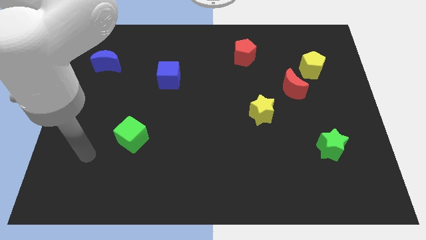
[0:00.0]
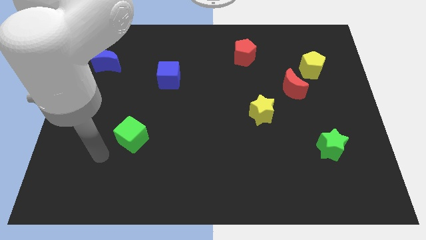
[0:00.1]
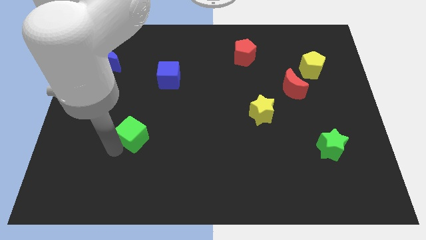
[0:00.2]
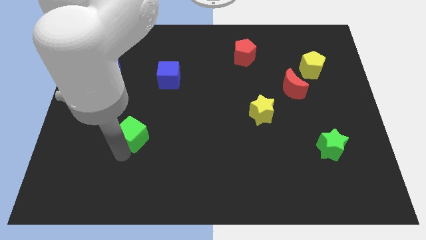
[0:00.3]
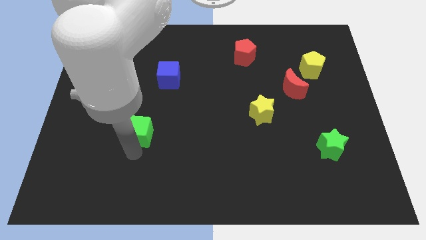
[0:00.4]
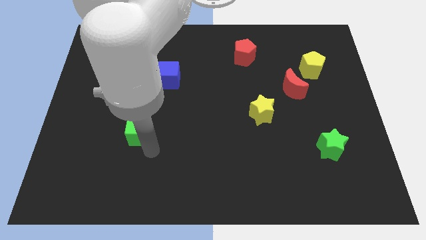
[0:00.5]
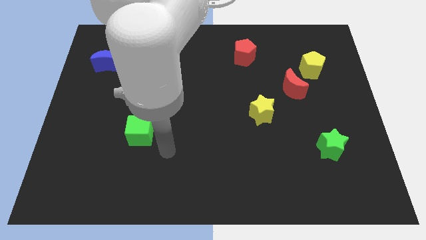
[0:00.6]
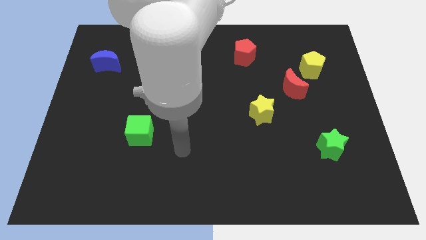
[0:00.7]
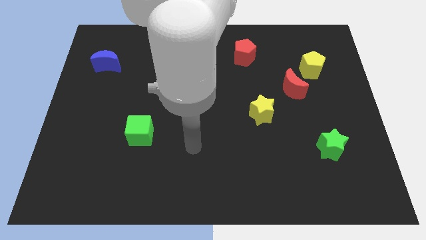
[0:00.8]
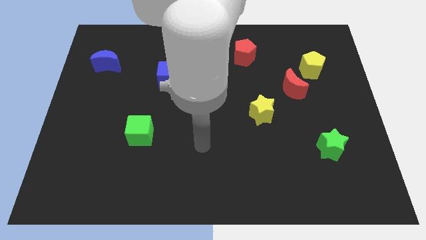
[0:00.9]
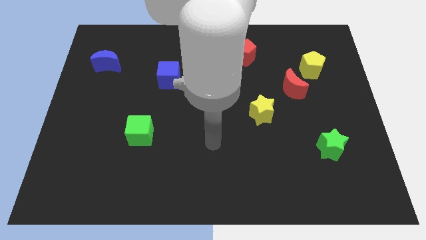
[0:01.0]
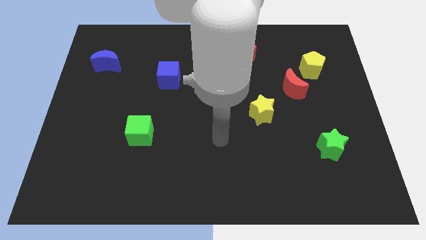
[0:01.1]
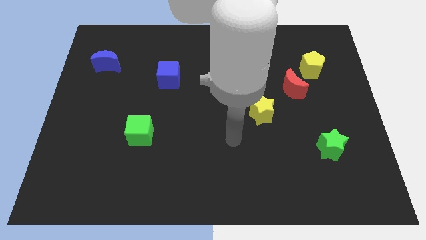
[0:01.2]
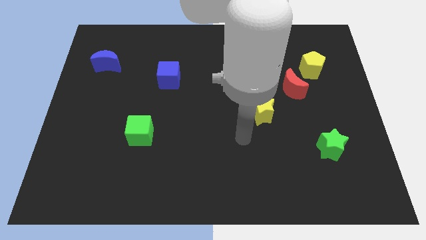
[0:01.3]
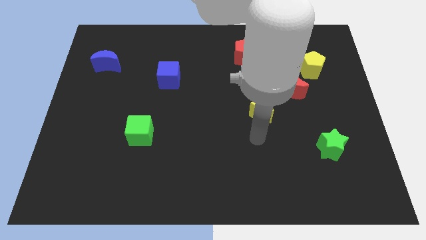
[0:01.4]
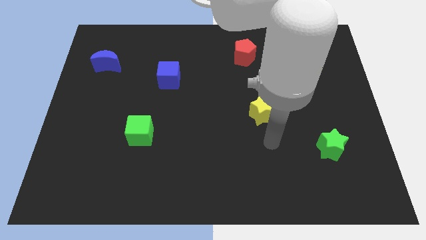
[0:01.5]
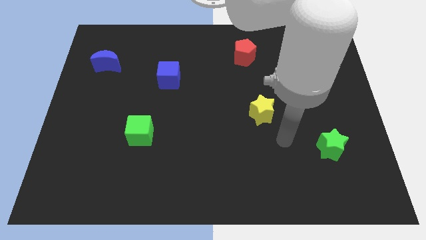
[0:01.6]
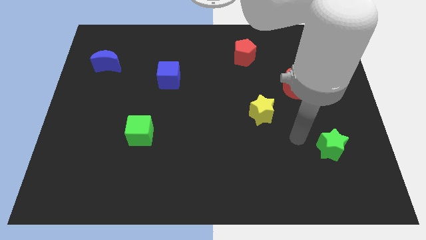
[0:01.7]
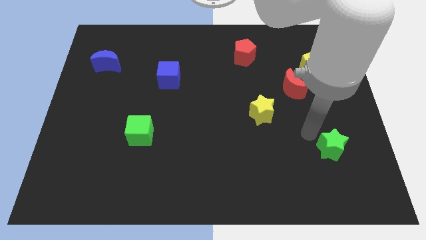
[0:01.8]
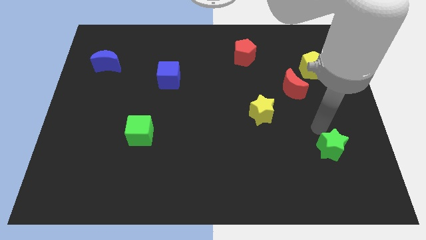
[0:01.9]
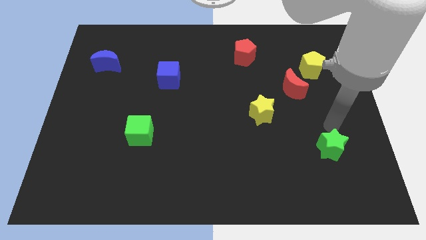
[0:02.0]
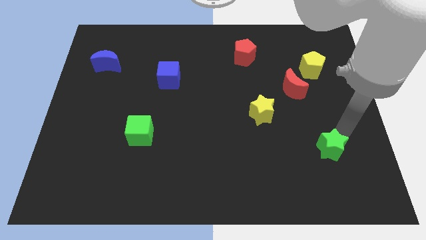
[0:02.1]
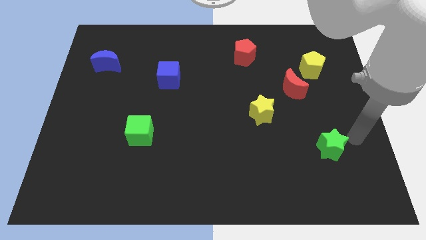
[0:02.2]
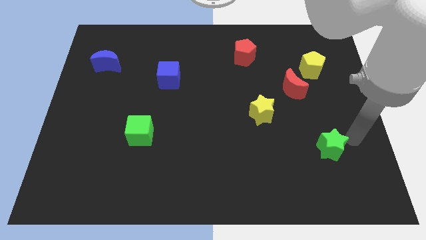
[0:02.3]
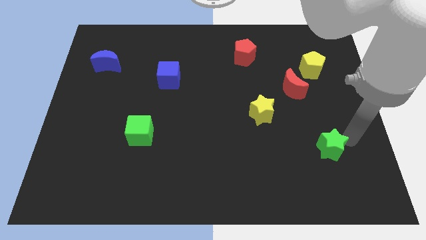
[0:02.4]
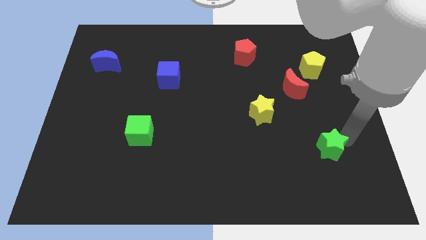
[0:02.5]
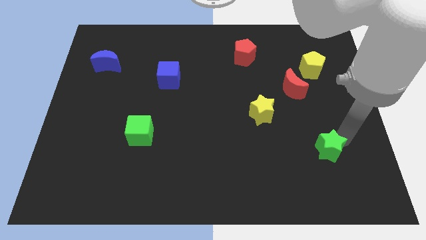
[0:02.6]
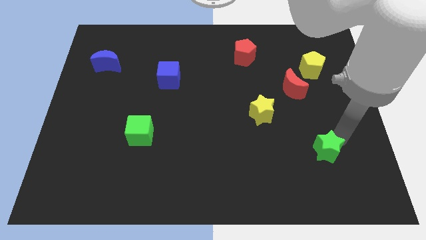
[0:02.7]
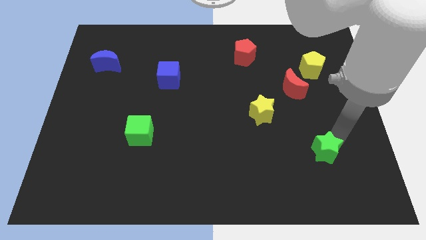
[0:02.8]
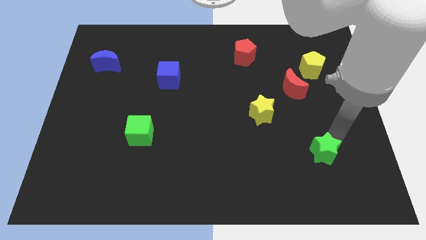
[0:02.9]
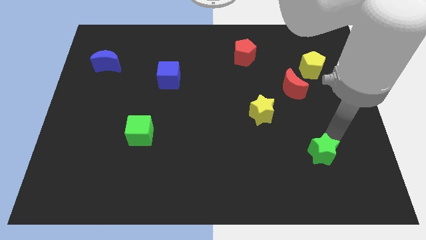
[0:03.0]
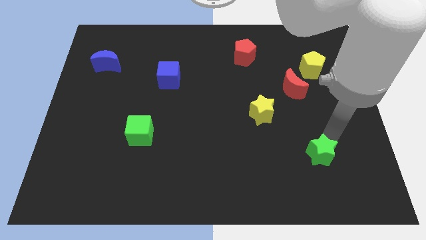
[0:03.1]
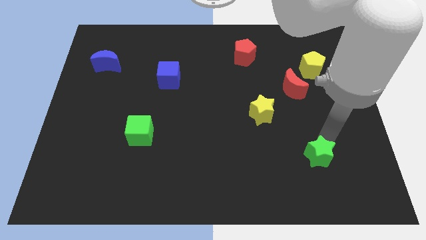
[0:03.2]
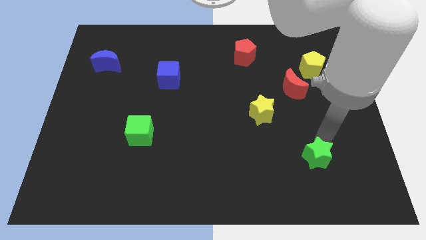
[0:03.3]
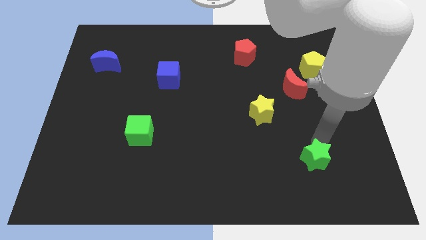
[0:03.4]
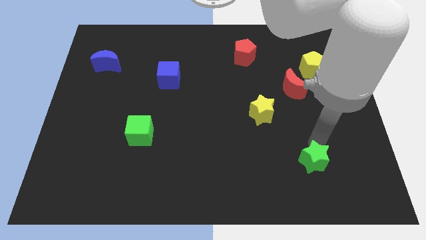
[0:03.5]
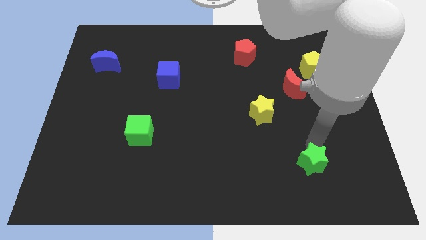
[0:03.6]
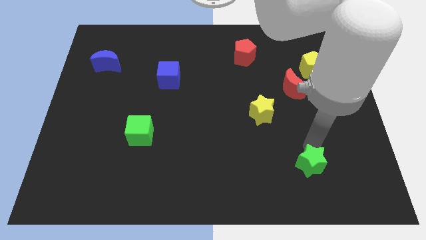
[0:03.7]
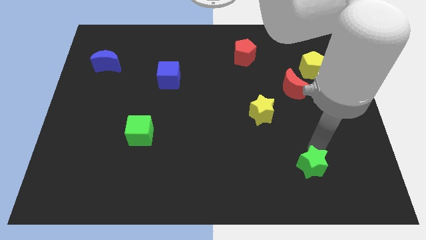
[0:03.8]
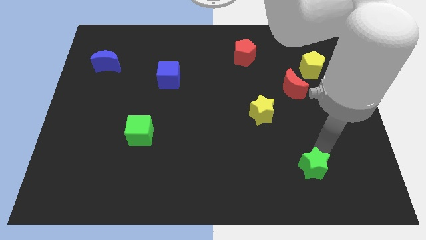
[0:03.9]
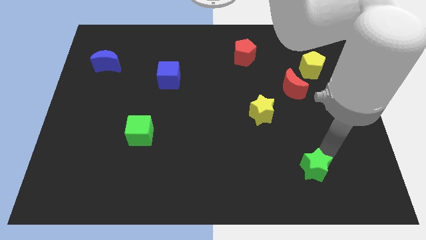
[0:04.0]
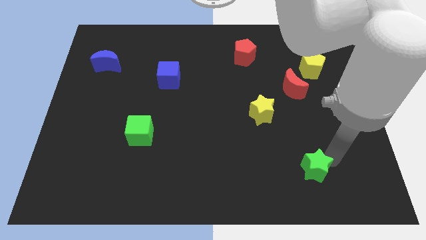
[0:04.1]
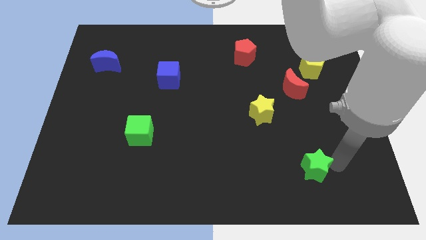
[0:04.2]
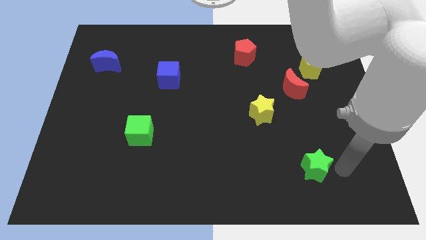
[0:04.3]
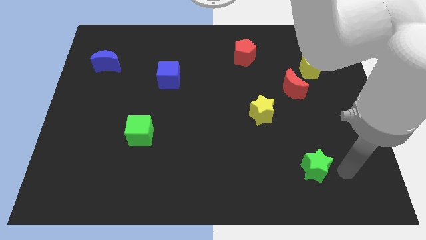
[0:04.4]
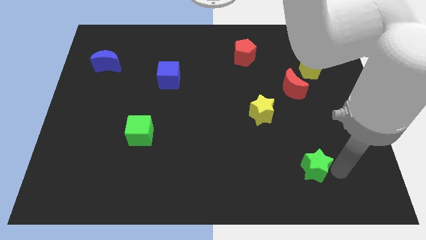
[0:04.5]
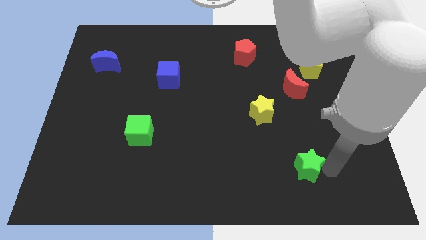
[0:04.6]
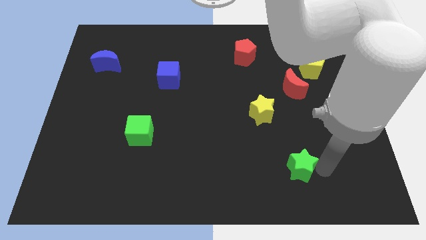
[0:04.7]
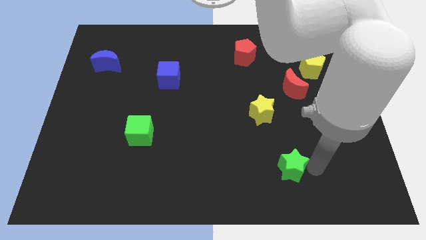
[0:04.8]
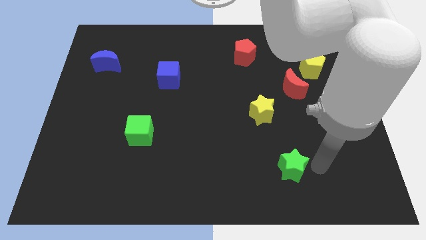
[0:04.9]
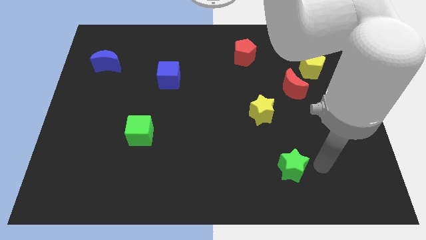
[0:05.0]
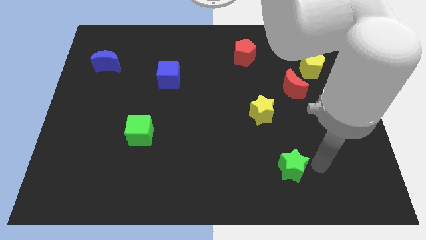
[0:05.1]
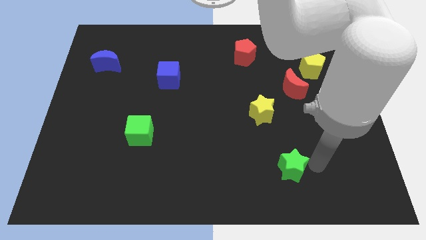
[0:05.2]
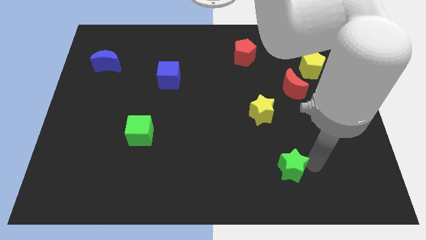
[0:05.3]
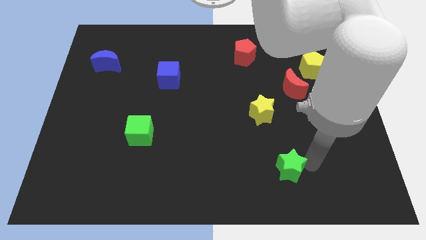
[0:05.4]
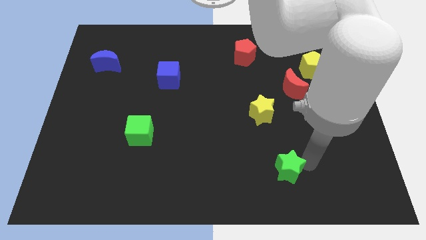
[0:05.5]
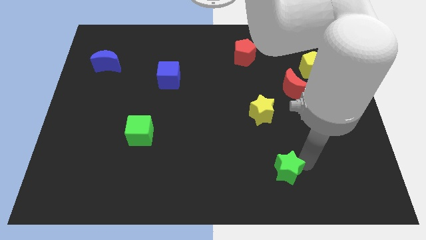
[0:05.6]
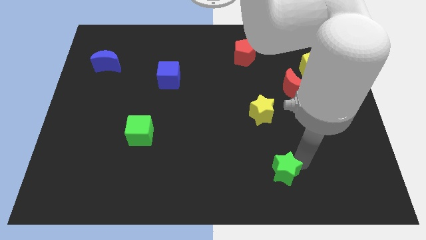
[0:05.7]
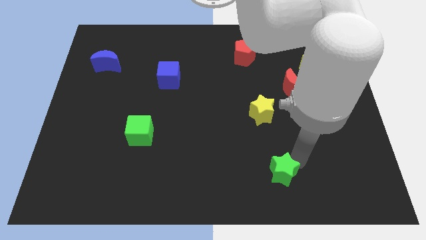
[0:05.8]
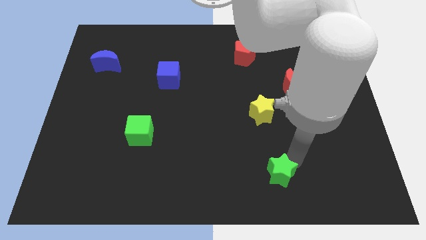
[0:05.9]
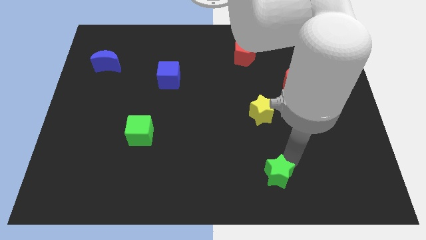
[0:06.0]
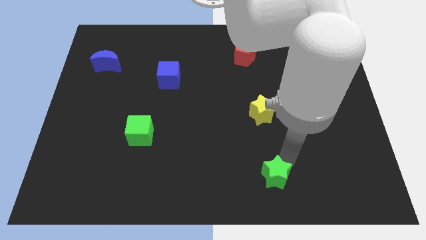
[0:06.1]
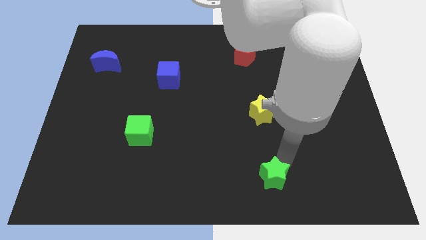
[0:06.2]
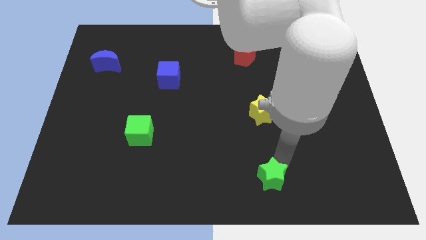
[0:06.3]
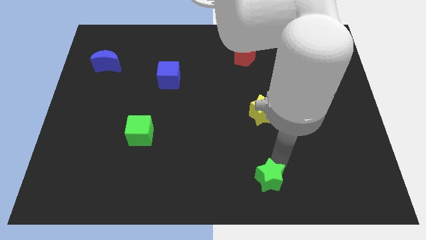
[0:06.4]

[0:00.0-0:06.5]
move the green star to the bottom
